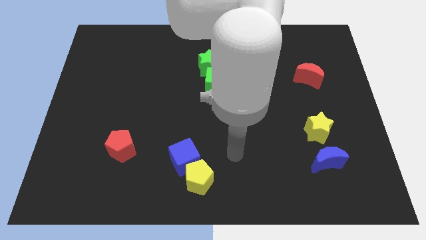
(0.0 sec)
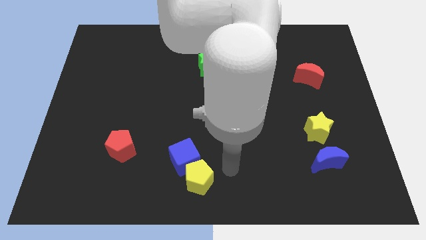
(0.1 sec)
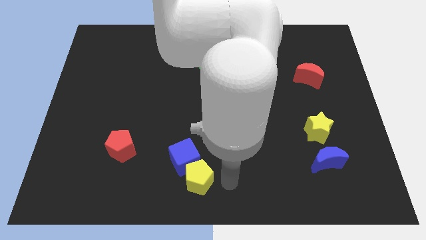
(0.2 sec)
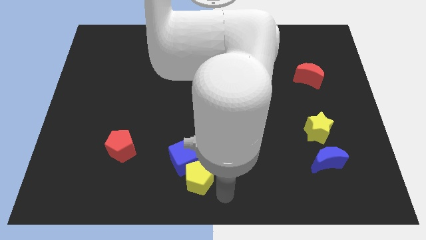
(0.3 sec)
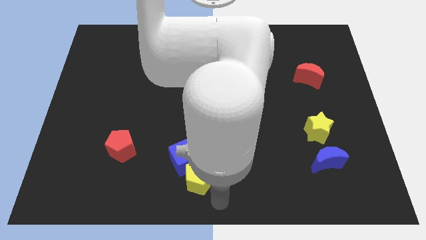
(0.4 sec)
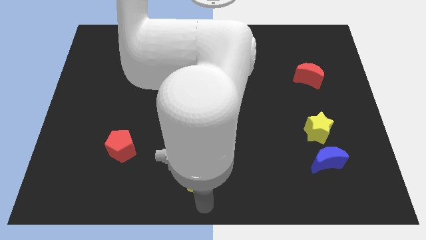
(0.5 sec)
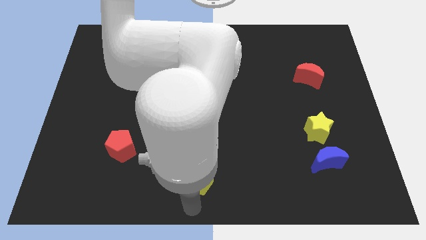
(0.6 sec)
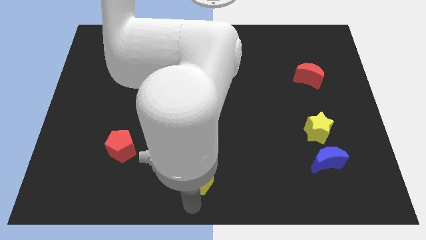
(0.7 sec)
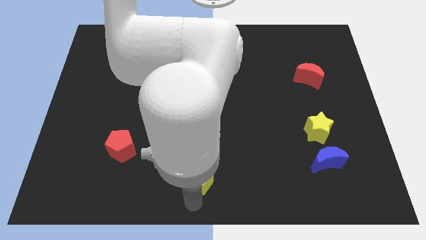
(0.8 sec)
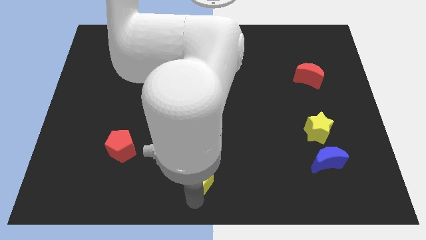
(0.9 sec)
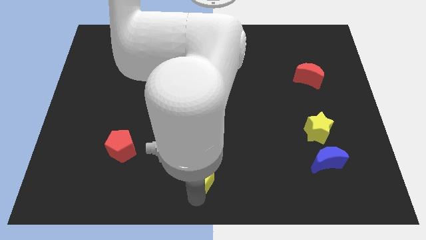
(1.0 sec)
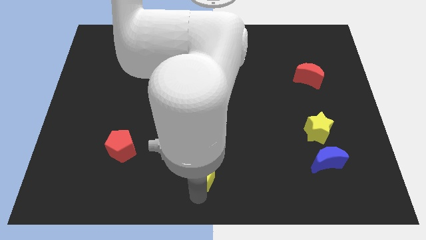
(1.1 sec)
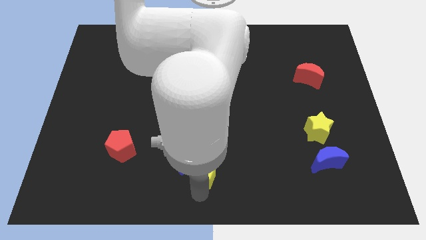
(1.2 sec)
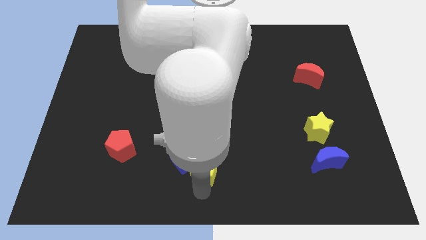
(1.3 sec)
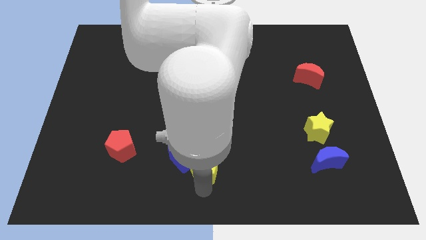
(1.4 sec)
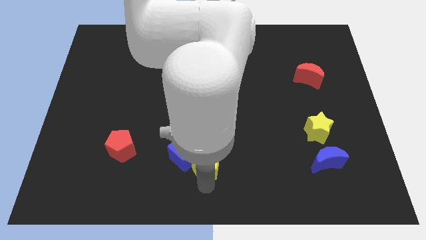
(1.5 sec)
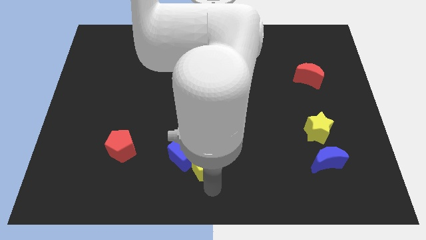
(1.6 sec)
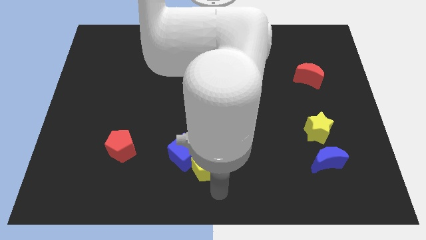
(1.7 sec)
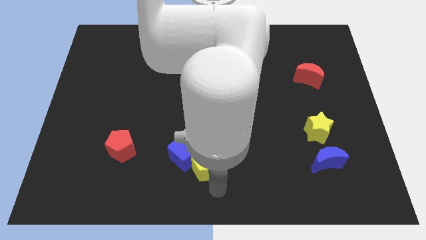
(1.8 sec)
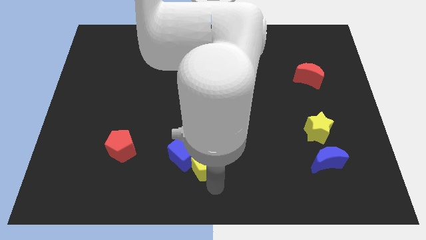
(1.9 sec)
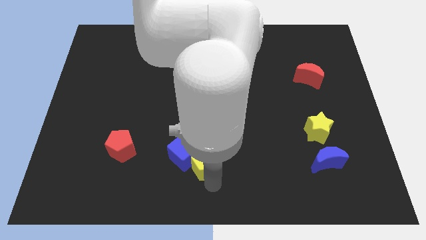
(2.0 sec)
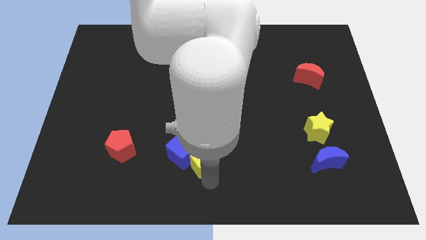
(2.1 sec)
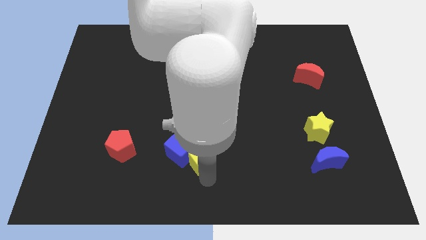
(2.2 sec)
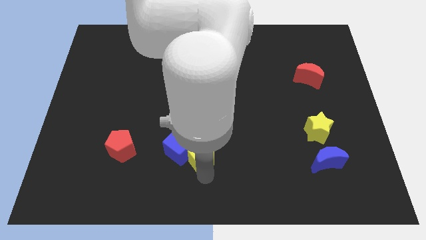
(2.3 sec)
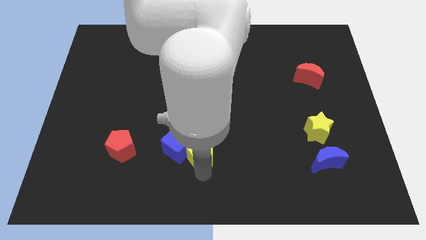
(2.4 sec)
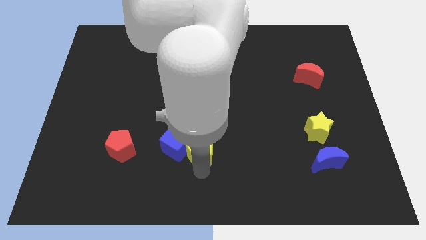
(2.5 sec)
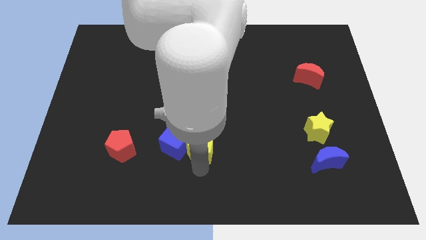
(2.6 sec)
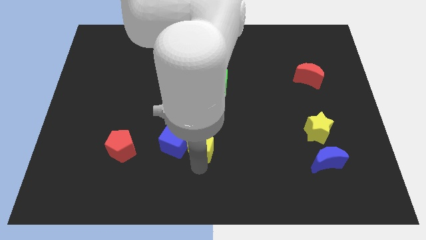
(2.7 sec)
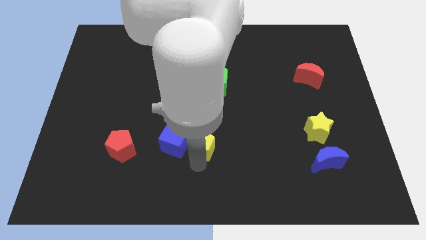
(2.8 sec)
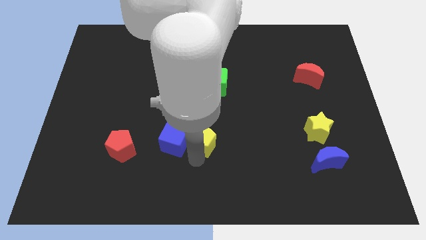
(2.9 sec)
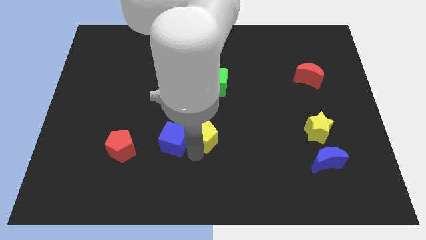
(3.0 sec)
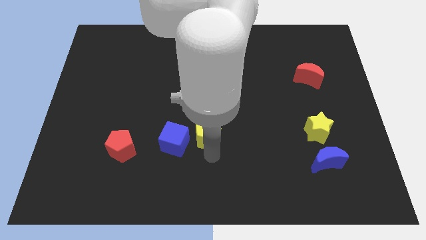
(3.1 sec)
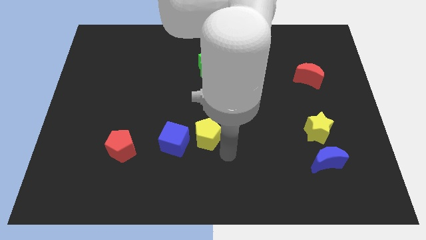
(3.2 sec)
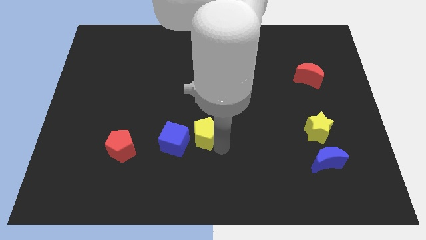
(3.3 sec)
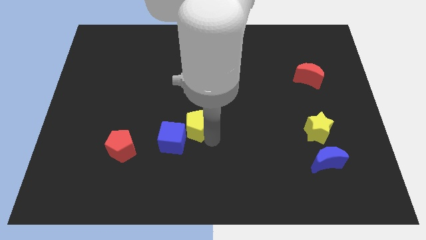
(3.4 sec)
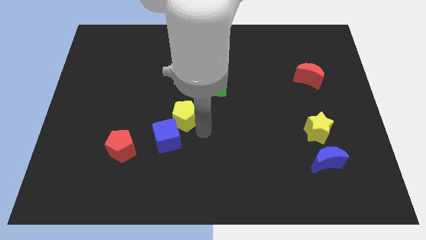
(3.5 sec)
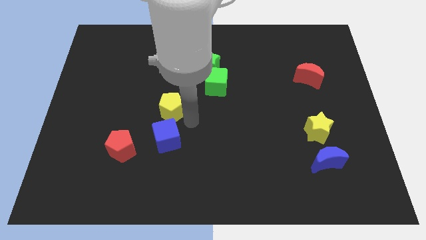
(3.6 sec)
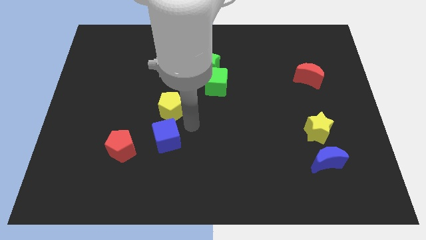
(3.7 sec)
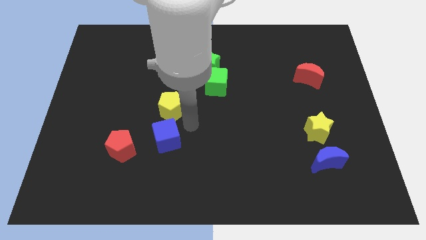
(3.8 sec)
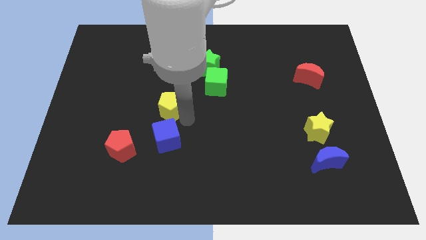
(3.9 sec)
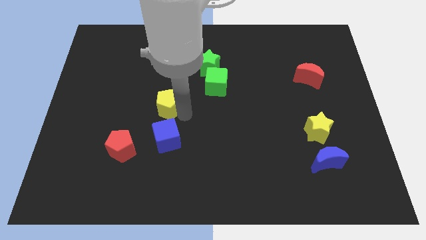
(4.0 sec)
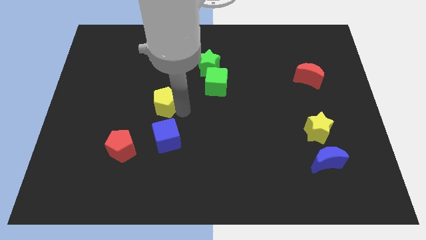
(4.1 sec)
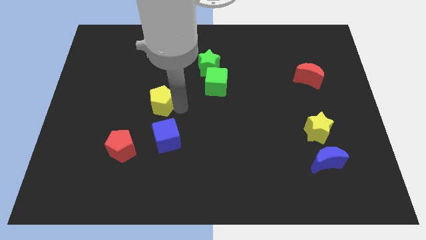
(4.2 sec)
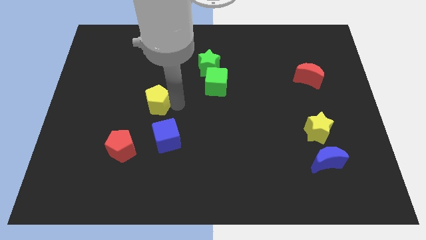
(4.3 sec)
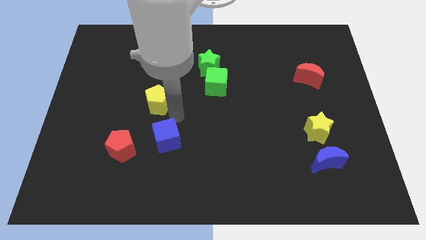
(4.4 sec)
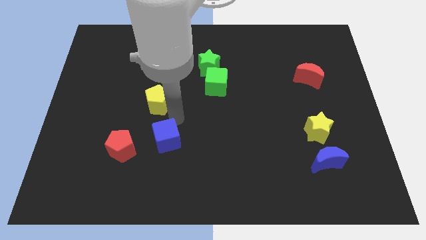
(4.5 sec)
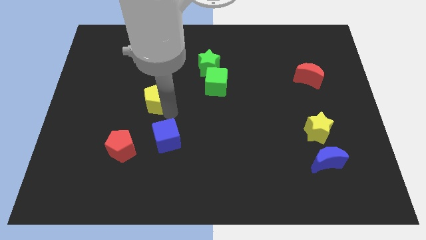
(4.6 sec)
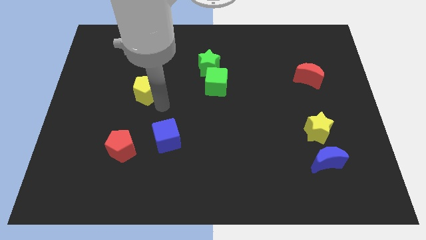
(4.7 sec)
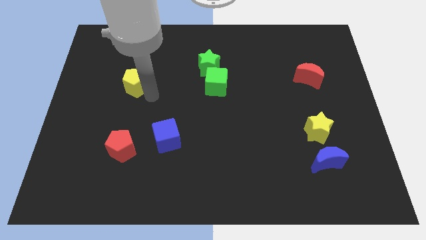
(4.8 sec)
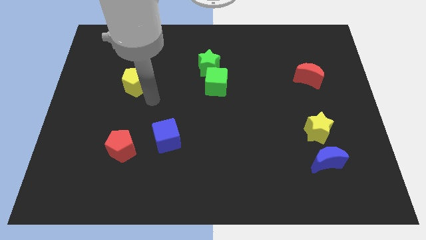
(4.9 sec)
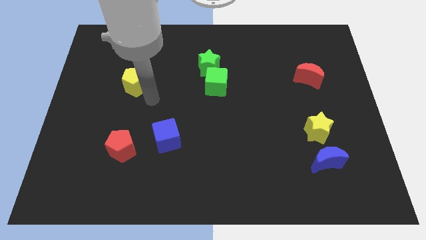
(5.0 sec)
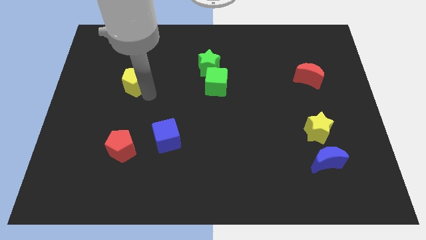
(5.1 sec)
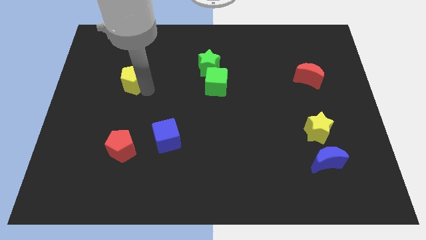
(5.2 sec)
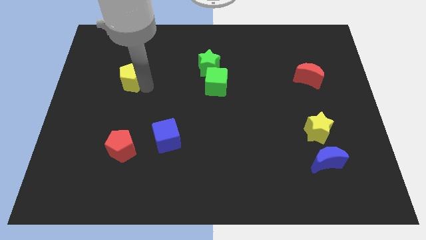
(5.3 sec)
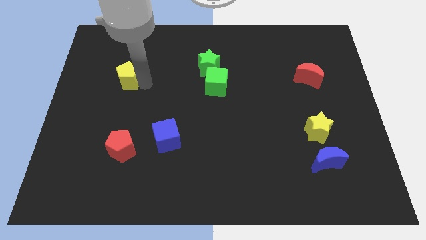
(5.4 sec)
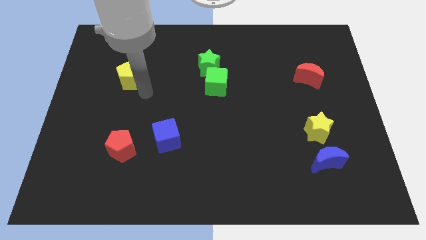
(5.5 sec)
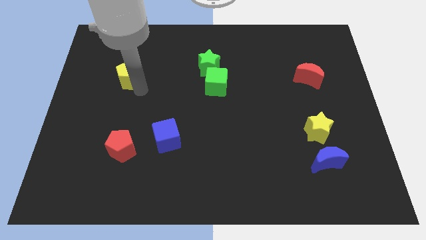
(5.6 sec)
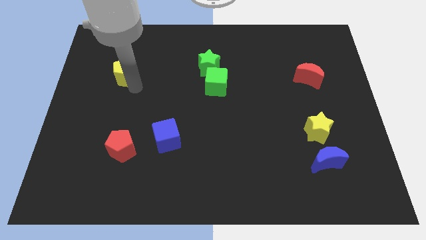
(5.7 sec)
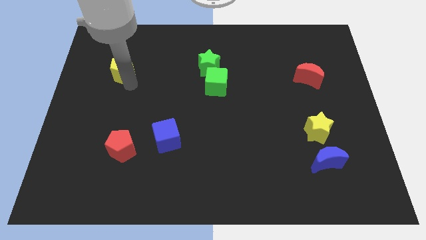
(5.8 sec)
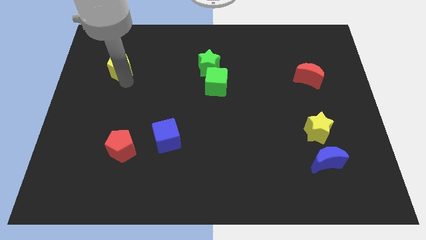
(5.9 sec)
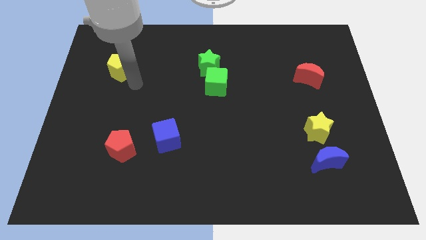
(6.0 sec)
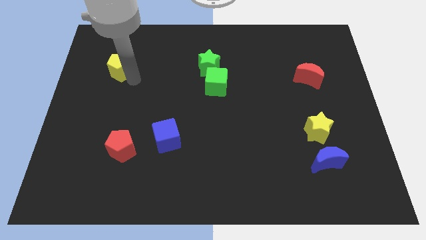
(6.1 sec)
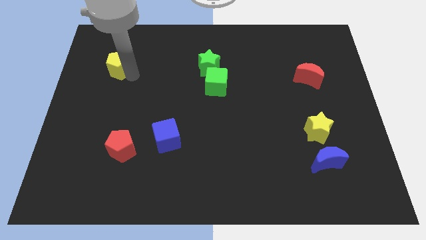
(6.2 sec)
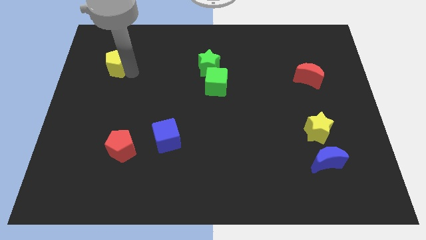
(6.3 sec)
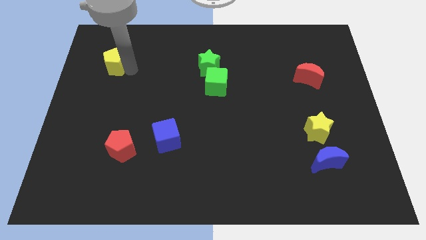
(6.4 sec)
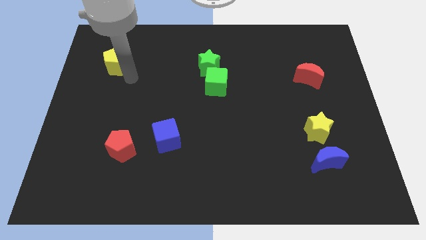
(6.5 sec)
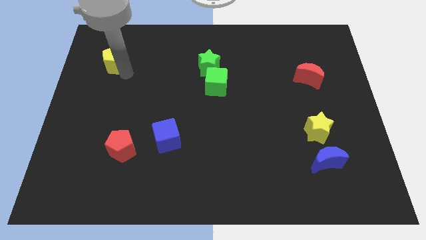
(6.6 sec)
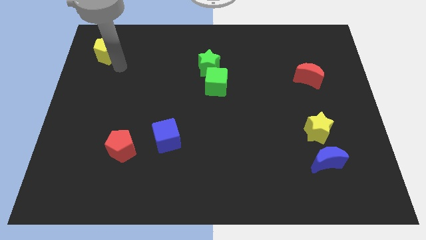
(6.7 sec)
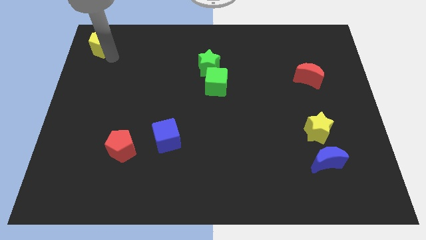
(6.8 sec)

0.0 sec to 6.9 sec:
put the yellow pentagon to the top left of the board

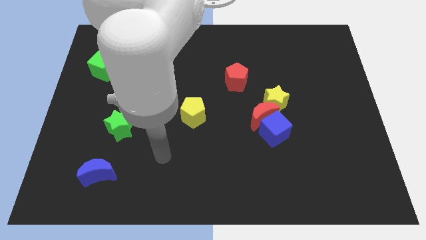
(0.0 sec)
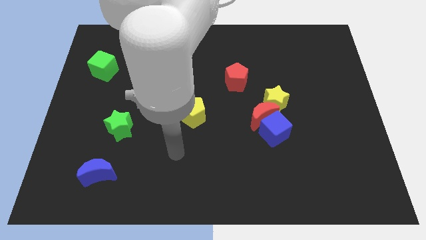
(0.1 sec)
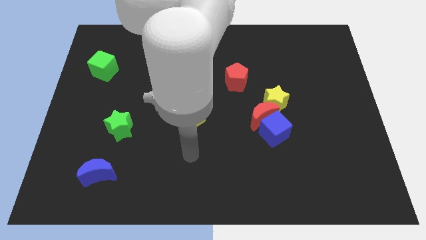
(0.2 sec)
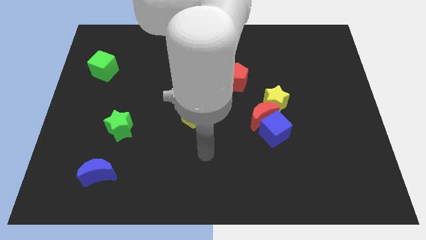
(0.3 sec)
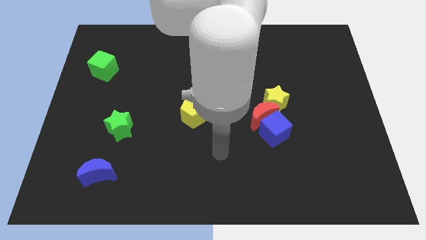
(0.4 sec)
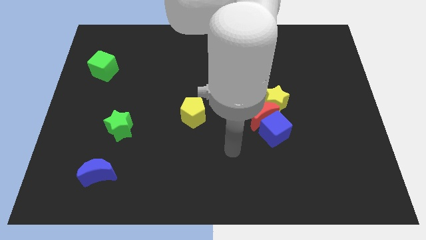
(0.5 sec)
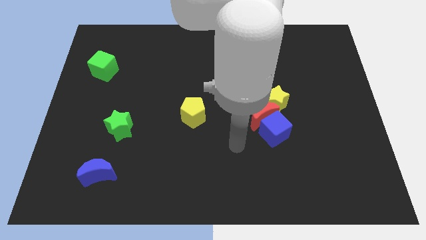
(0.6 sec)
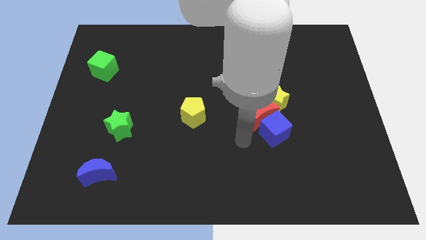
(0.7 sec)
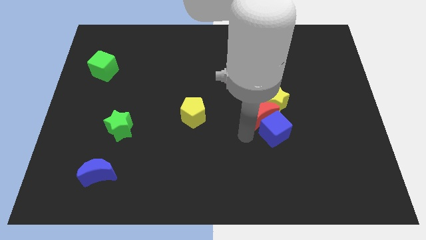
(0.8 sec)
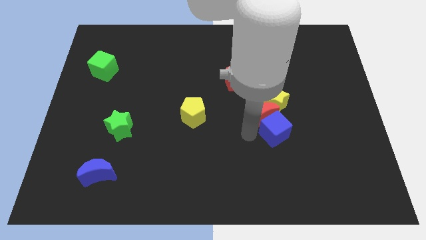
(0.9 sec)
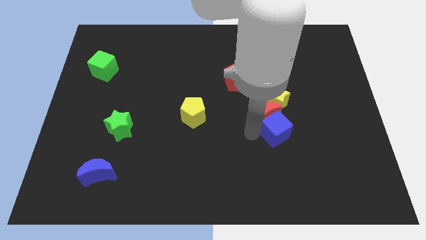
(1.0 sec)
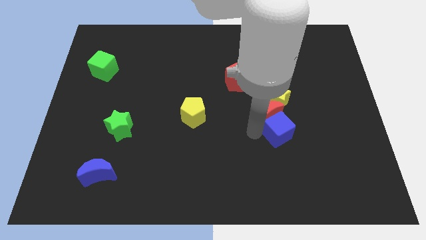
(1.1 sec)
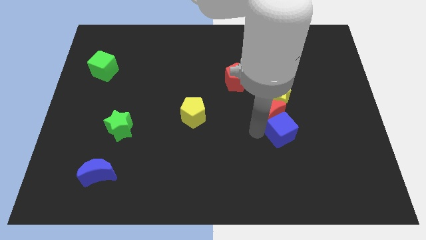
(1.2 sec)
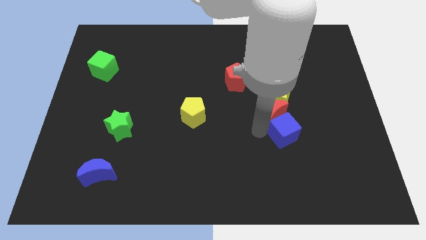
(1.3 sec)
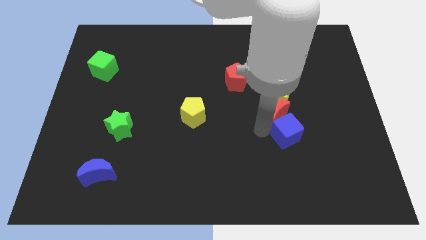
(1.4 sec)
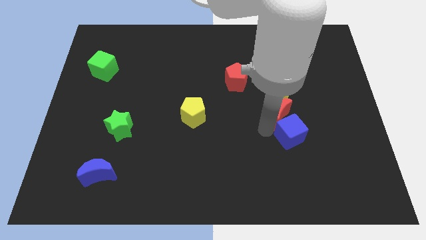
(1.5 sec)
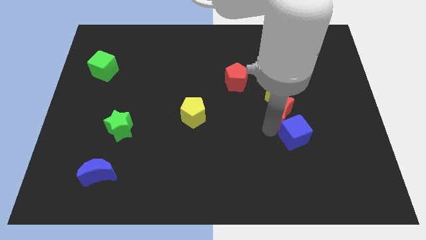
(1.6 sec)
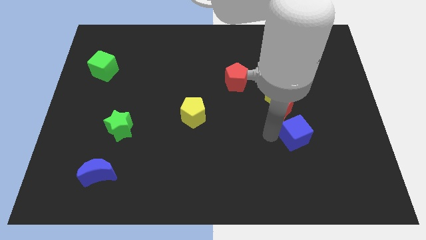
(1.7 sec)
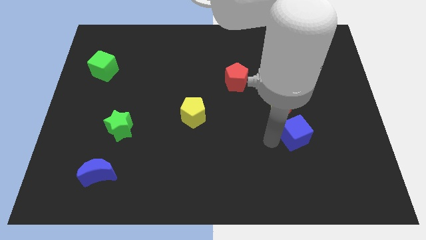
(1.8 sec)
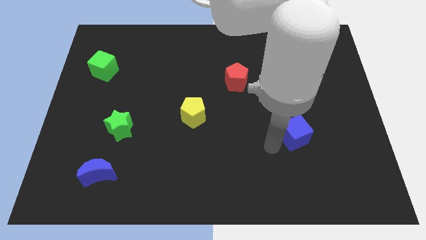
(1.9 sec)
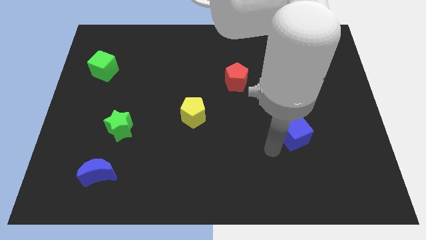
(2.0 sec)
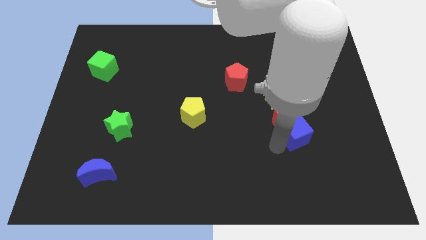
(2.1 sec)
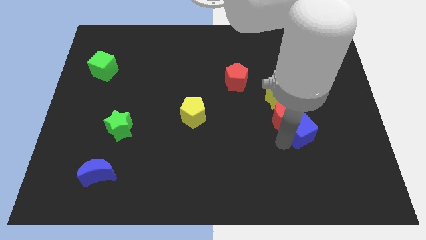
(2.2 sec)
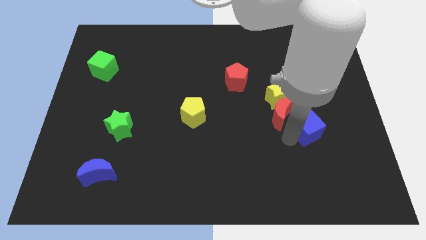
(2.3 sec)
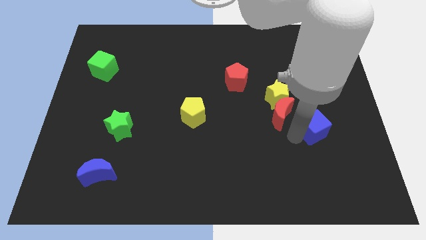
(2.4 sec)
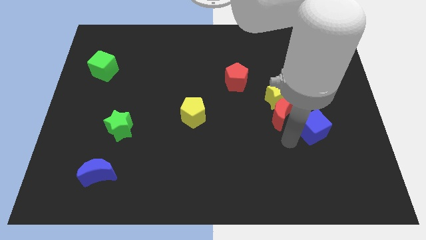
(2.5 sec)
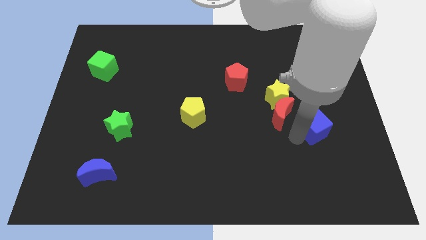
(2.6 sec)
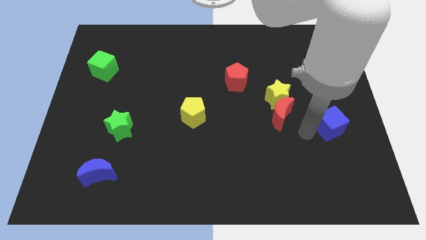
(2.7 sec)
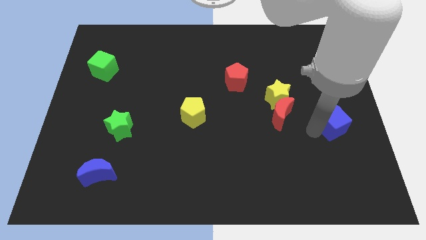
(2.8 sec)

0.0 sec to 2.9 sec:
push the blue cube to the right side of the board
